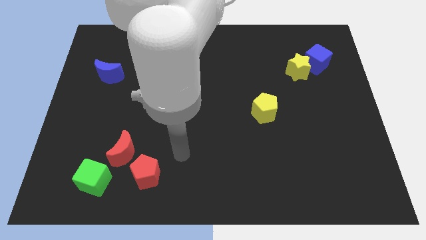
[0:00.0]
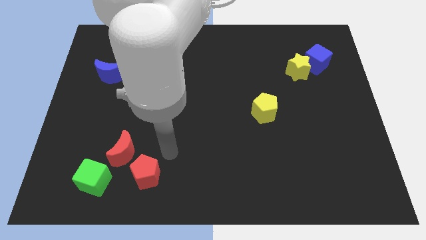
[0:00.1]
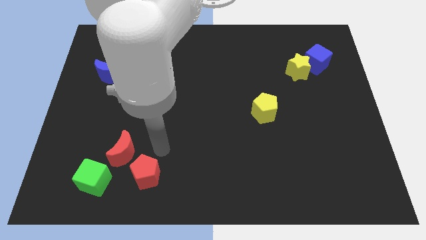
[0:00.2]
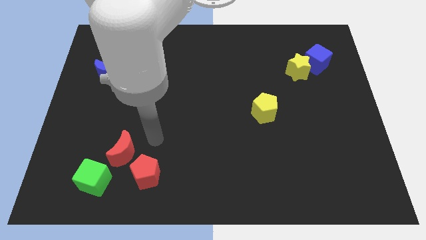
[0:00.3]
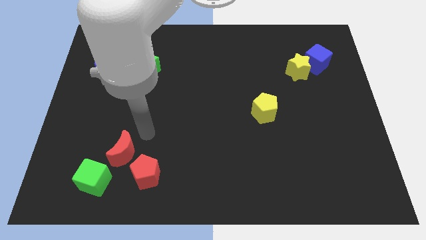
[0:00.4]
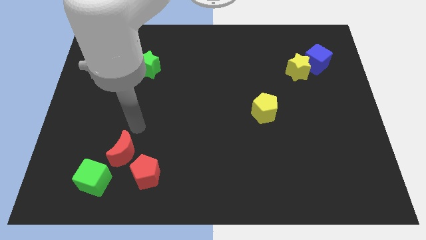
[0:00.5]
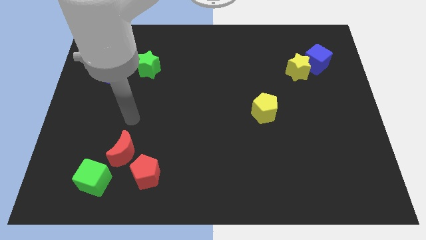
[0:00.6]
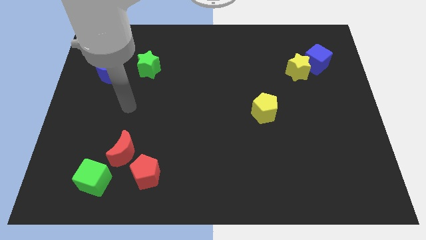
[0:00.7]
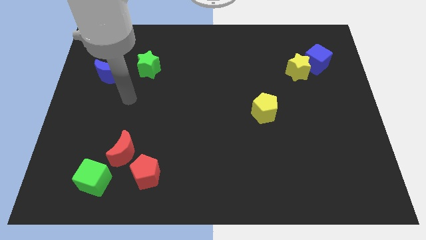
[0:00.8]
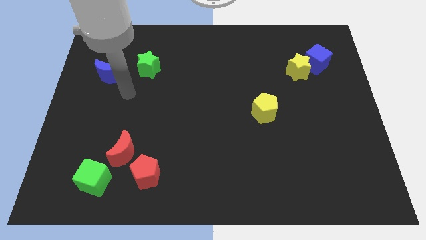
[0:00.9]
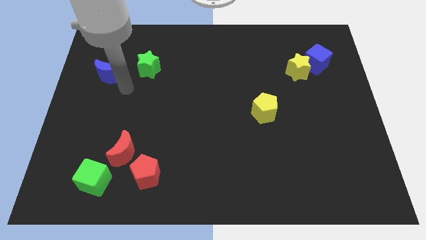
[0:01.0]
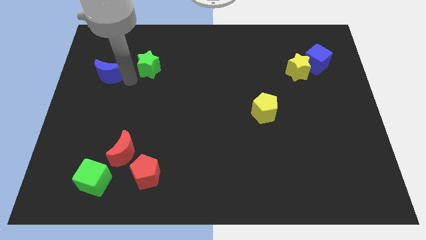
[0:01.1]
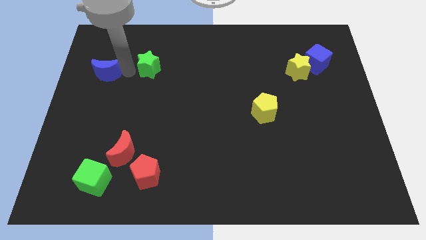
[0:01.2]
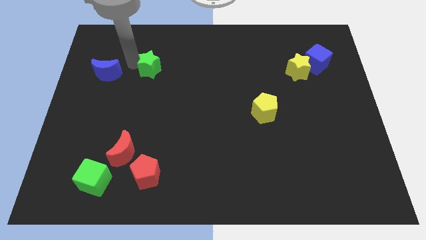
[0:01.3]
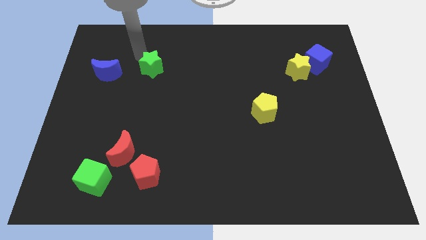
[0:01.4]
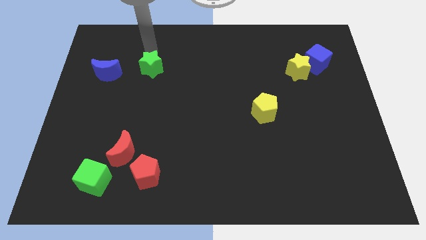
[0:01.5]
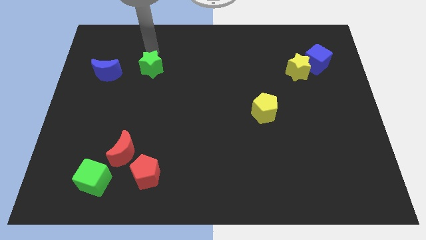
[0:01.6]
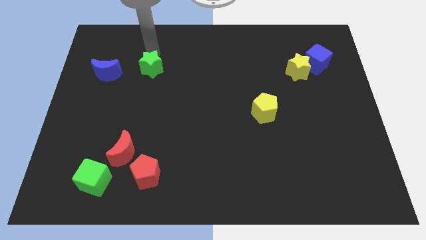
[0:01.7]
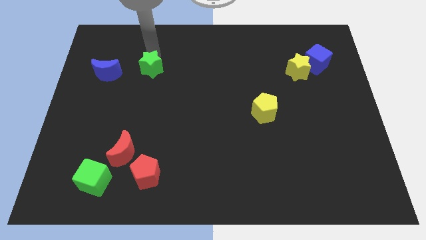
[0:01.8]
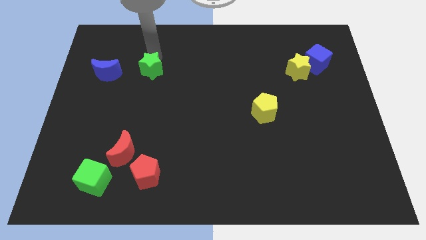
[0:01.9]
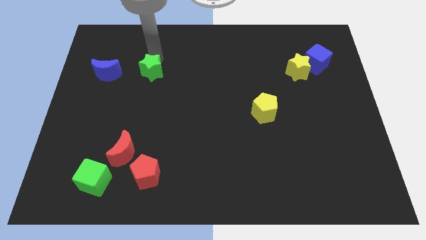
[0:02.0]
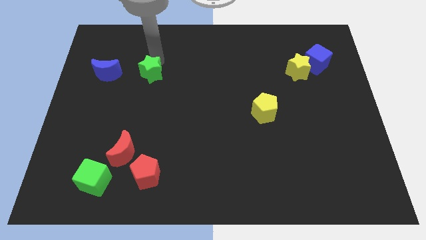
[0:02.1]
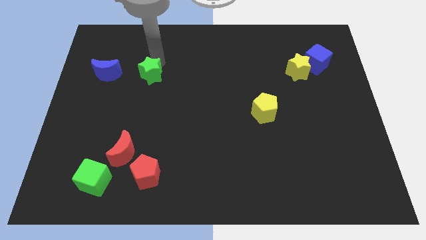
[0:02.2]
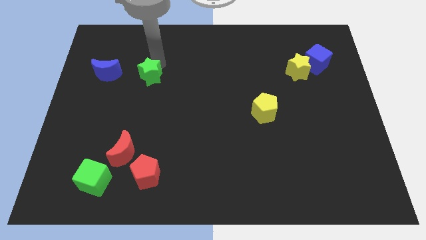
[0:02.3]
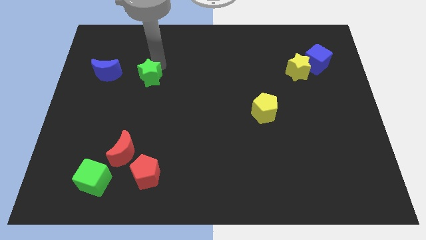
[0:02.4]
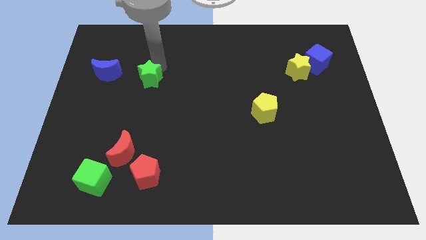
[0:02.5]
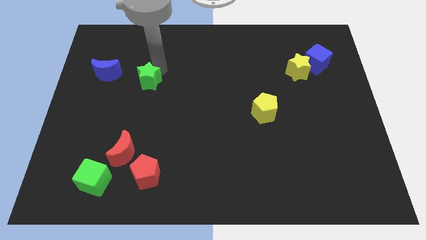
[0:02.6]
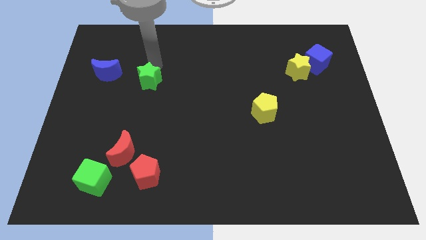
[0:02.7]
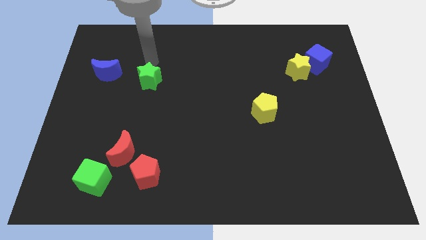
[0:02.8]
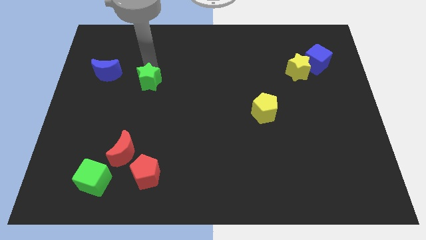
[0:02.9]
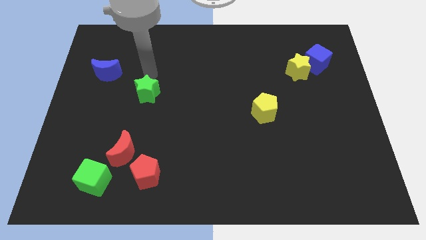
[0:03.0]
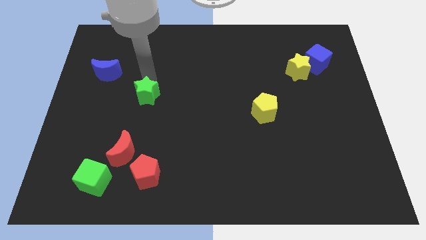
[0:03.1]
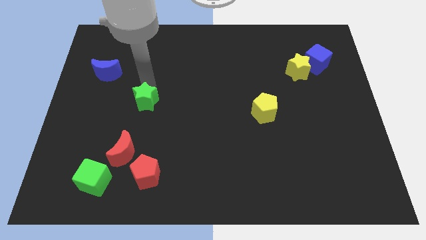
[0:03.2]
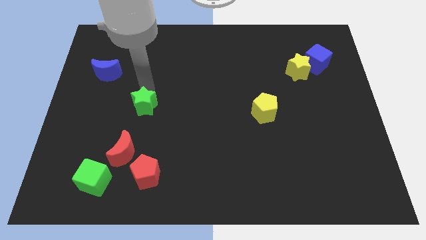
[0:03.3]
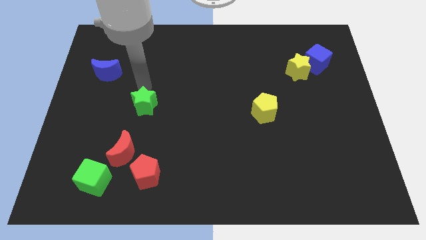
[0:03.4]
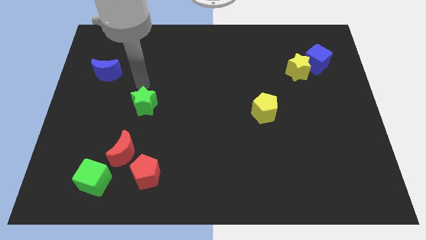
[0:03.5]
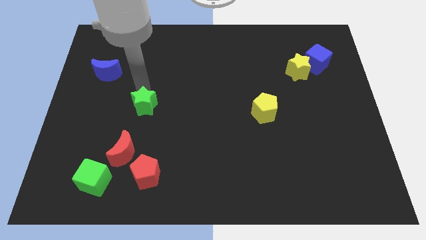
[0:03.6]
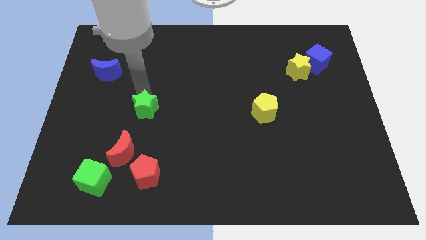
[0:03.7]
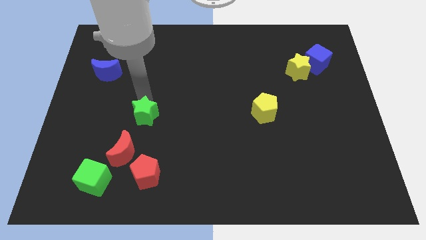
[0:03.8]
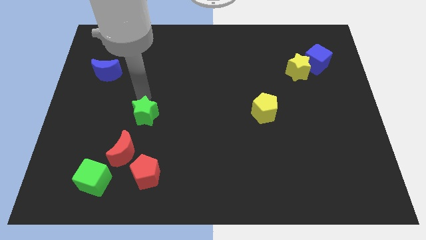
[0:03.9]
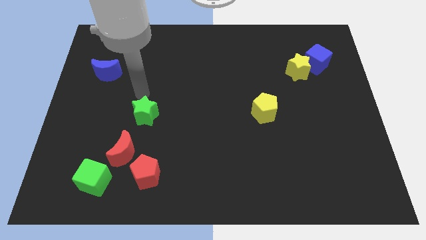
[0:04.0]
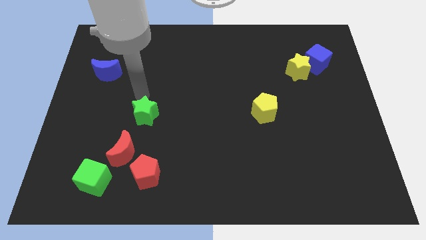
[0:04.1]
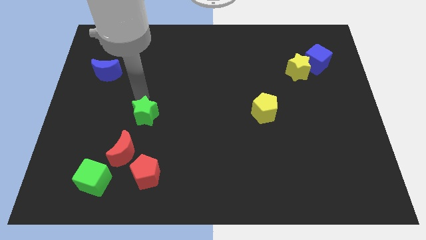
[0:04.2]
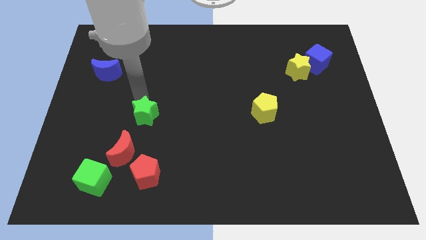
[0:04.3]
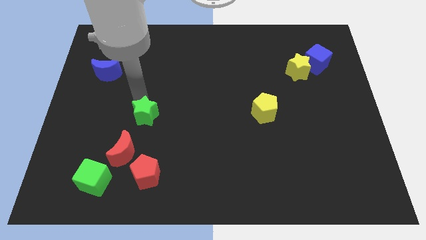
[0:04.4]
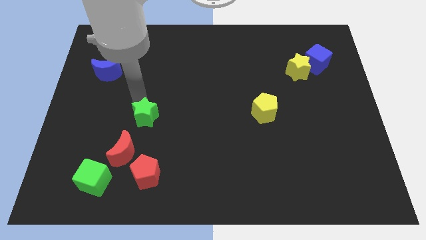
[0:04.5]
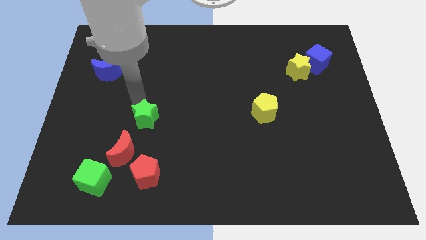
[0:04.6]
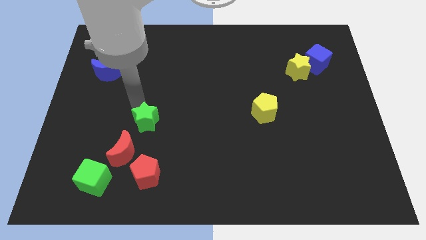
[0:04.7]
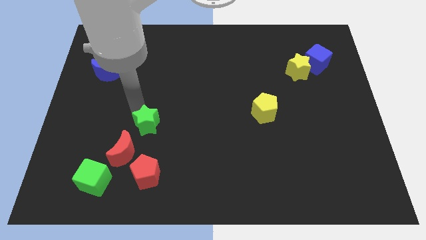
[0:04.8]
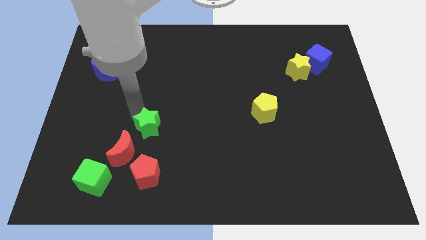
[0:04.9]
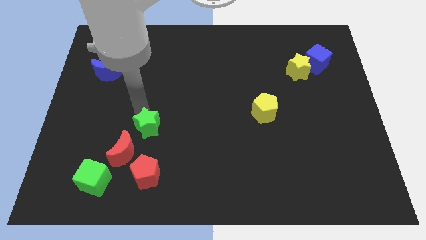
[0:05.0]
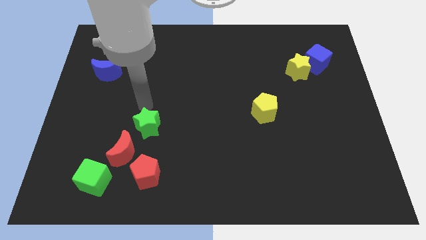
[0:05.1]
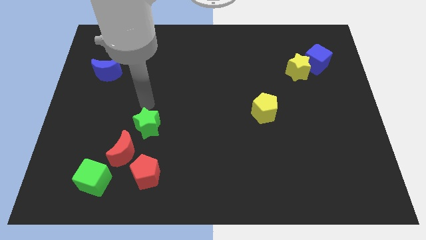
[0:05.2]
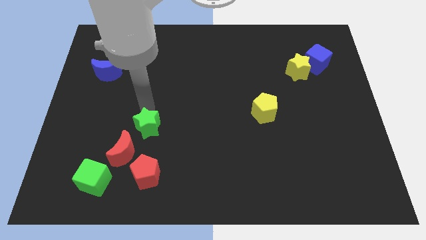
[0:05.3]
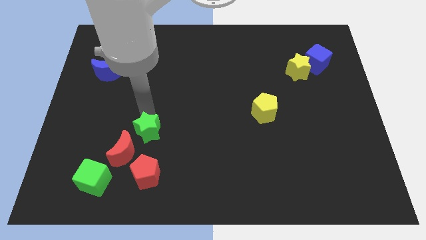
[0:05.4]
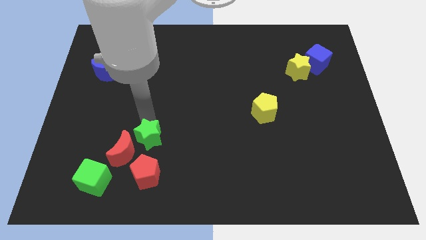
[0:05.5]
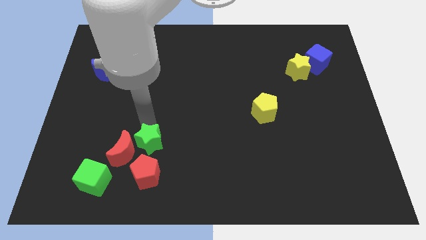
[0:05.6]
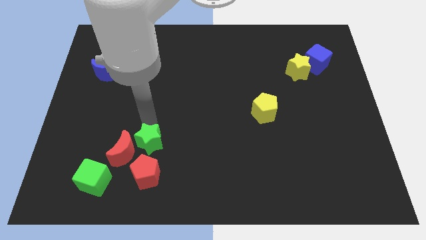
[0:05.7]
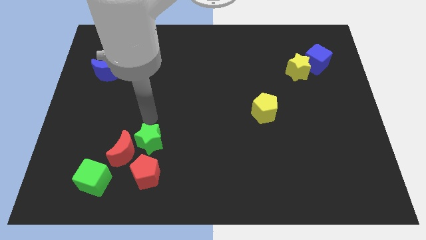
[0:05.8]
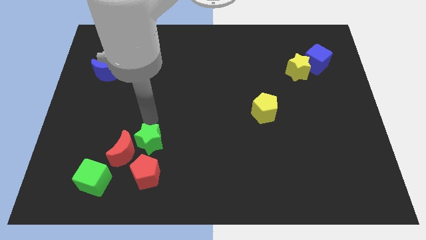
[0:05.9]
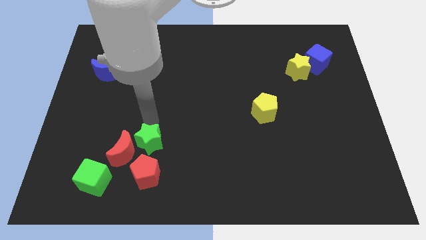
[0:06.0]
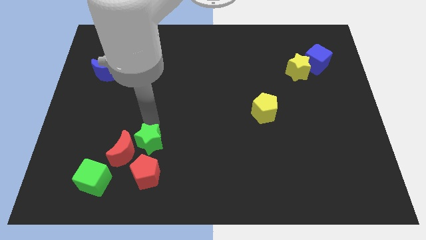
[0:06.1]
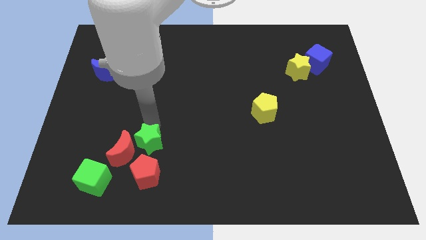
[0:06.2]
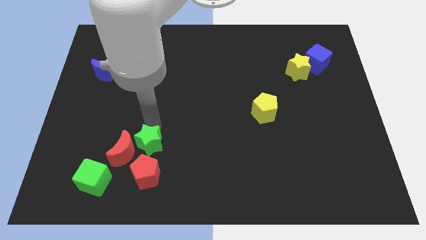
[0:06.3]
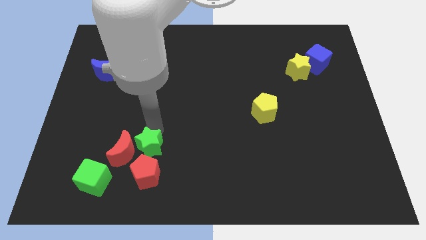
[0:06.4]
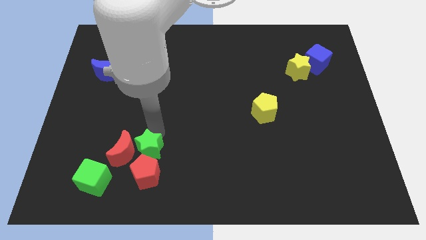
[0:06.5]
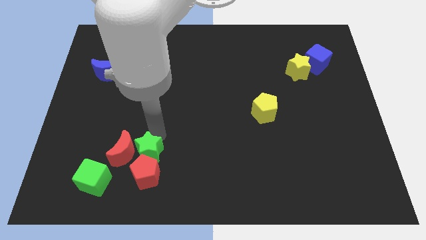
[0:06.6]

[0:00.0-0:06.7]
push the green star close to the red pentagon
